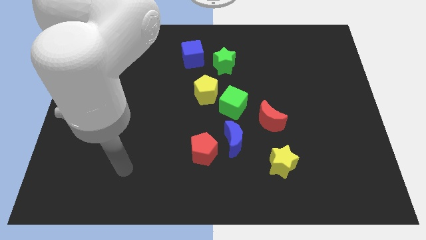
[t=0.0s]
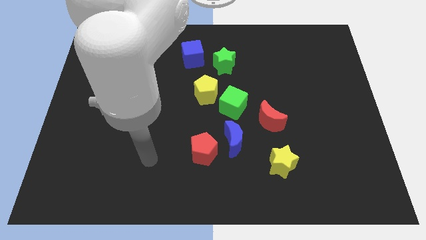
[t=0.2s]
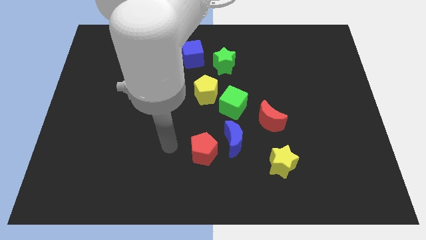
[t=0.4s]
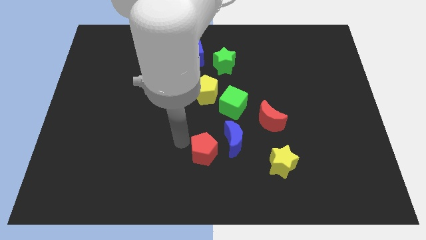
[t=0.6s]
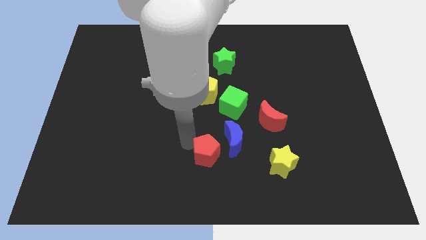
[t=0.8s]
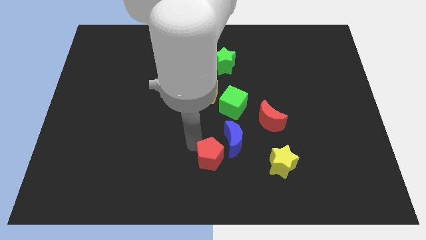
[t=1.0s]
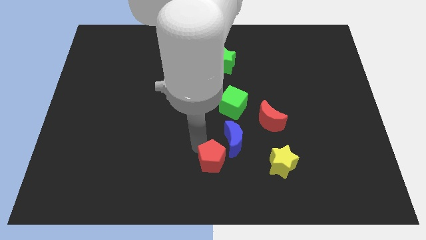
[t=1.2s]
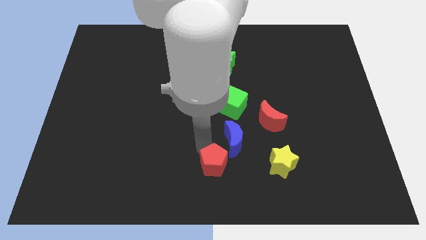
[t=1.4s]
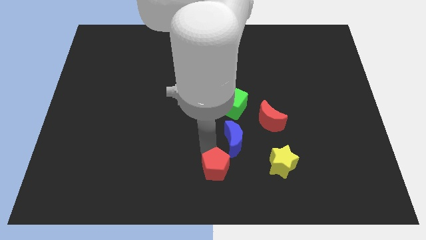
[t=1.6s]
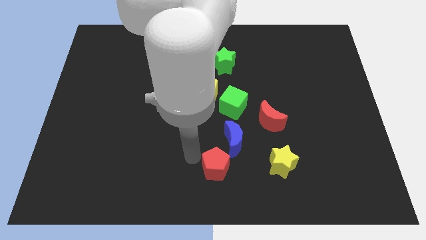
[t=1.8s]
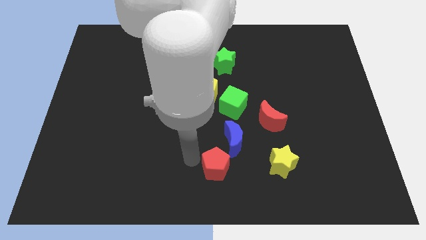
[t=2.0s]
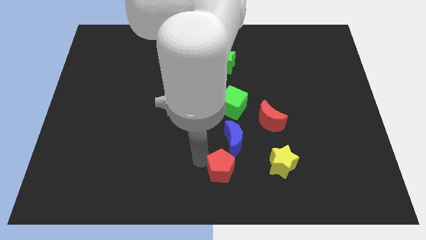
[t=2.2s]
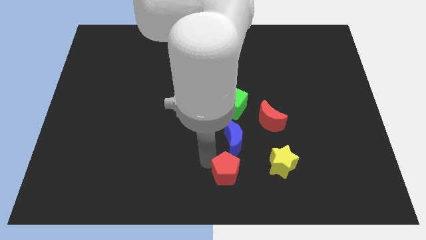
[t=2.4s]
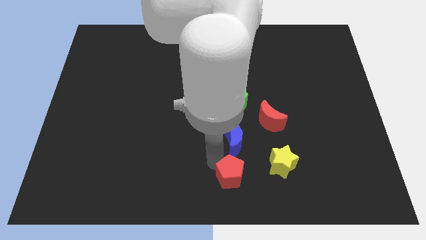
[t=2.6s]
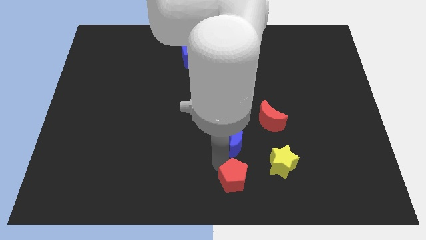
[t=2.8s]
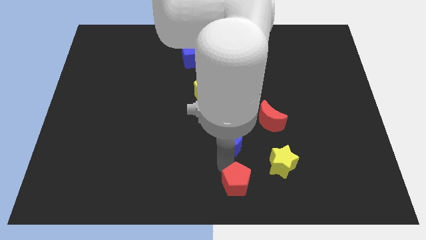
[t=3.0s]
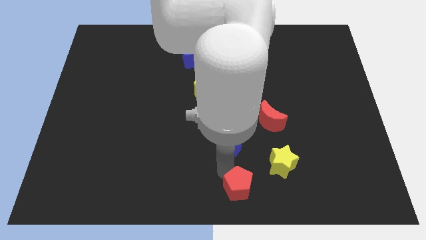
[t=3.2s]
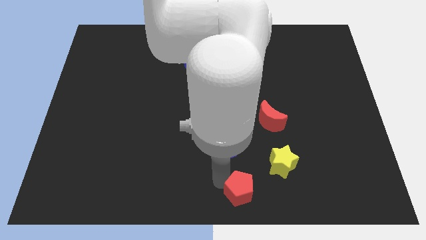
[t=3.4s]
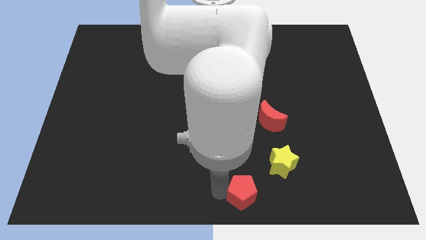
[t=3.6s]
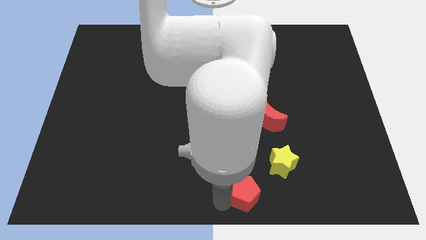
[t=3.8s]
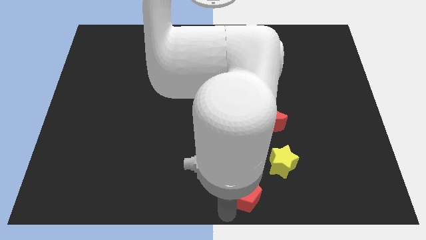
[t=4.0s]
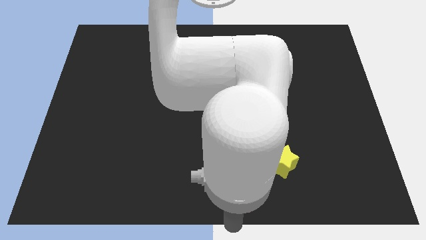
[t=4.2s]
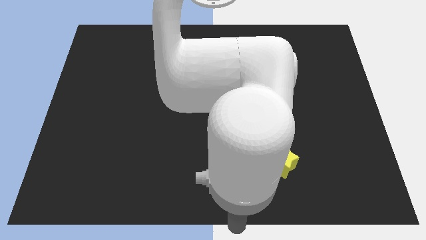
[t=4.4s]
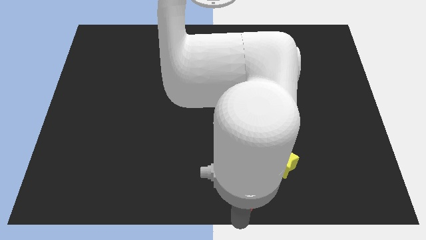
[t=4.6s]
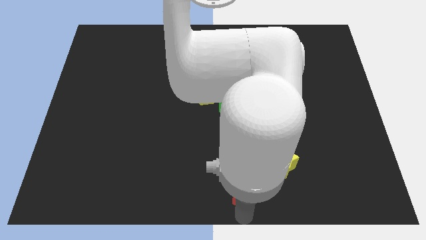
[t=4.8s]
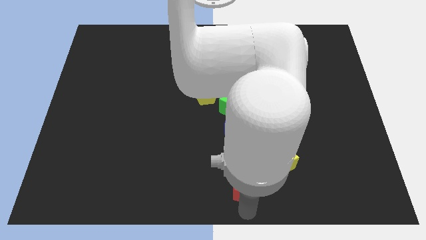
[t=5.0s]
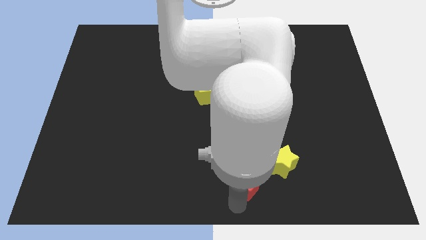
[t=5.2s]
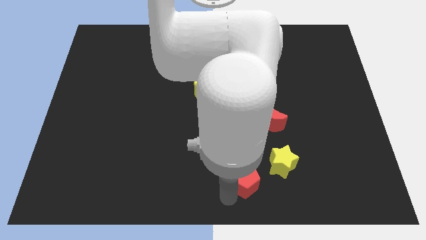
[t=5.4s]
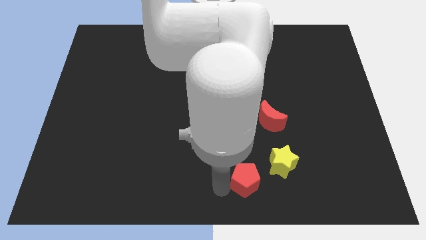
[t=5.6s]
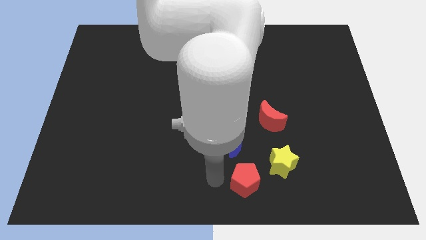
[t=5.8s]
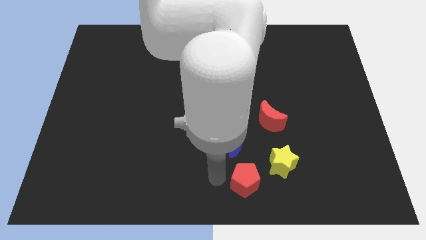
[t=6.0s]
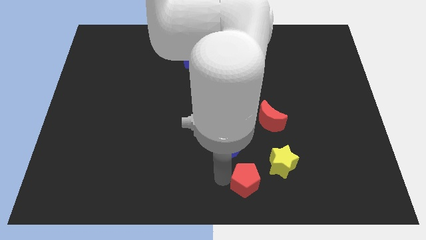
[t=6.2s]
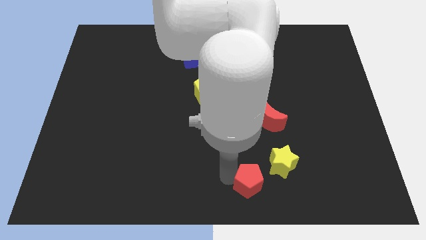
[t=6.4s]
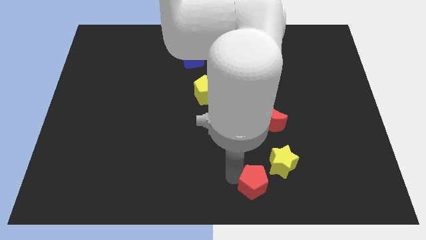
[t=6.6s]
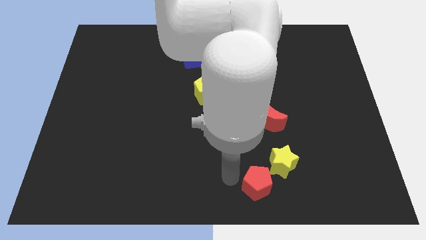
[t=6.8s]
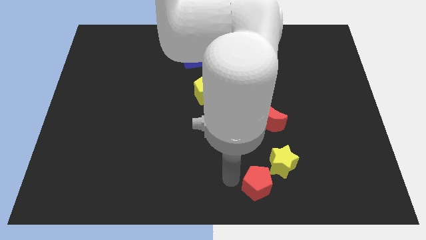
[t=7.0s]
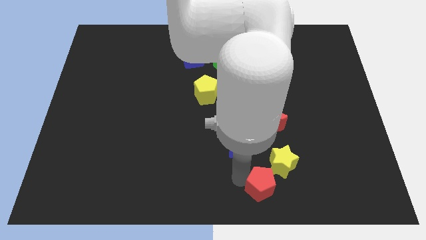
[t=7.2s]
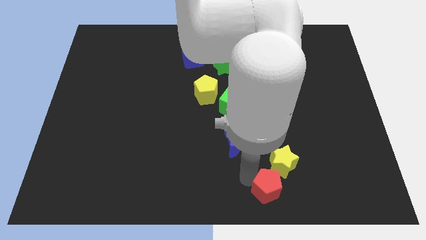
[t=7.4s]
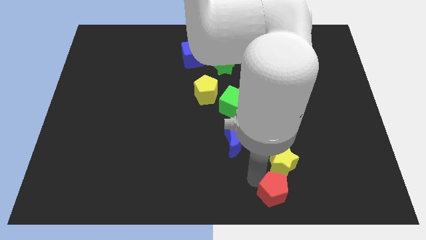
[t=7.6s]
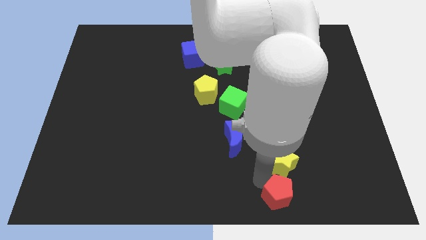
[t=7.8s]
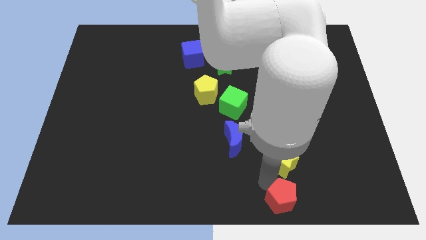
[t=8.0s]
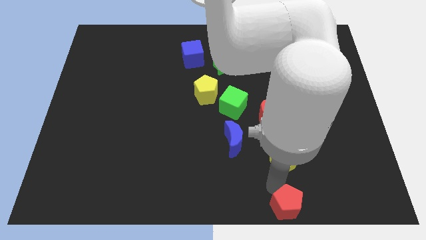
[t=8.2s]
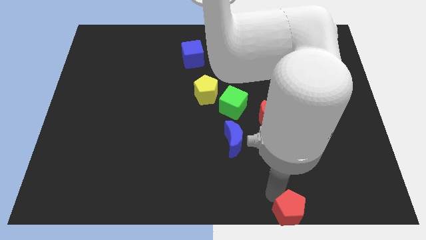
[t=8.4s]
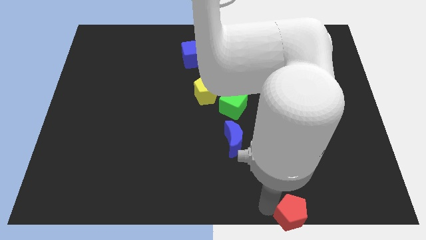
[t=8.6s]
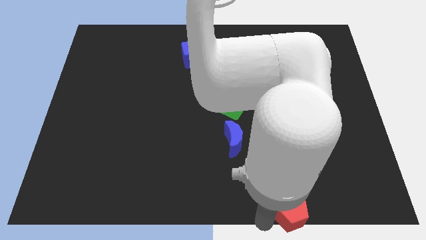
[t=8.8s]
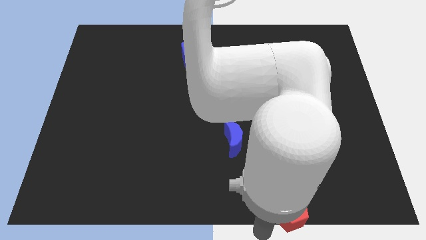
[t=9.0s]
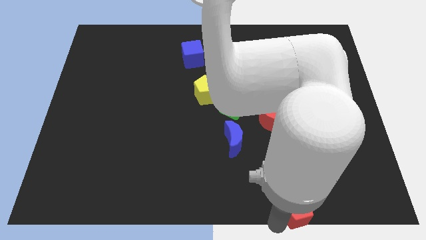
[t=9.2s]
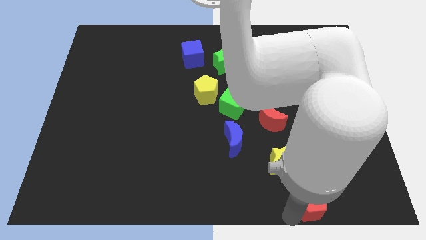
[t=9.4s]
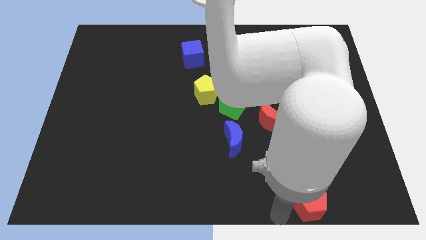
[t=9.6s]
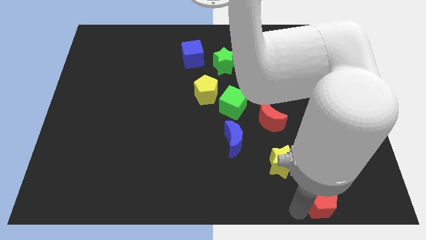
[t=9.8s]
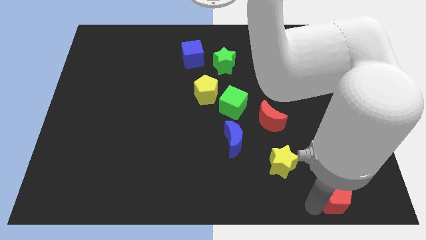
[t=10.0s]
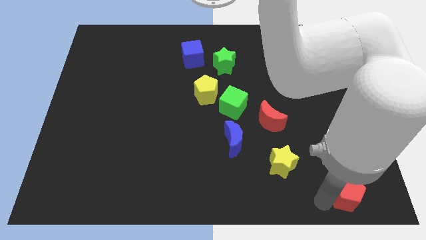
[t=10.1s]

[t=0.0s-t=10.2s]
put the red pentagon to the bottom right

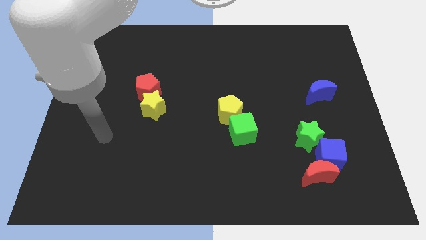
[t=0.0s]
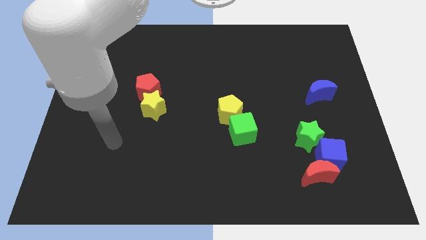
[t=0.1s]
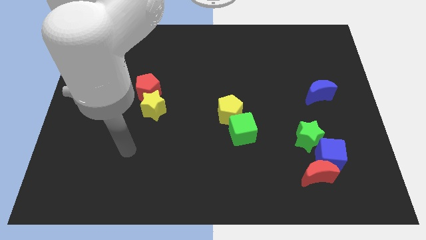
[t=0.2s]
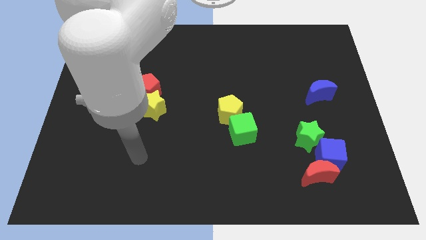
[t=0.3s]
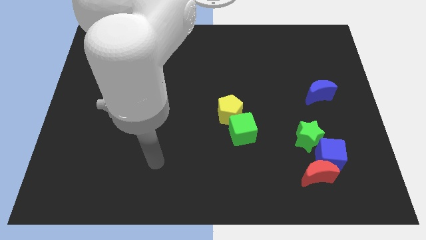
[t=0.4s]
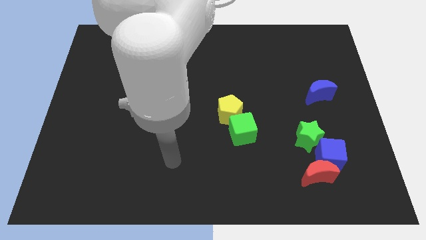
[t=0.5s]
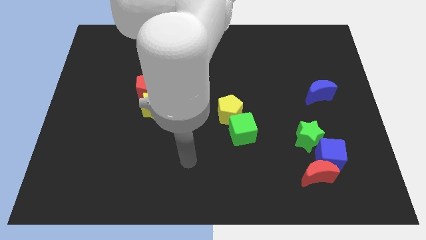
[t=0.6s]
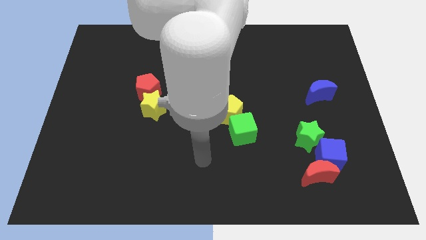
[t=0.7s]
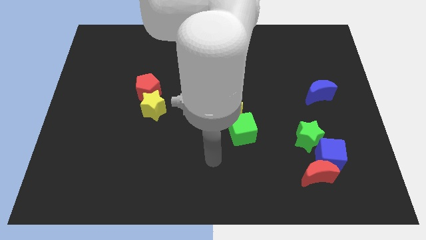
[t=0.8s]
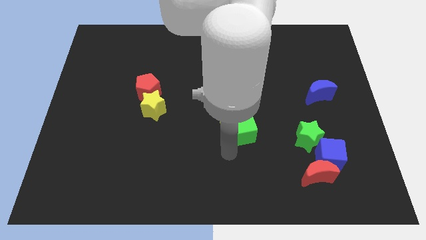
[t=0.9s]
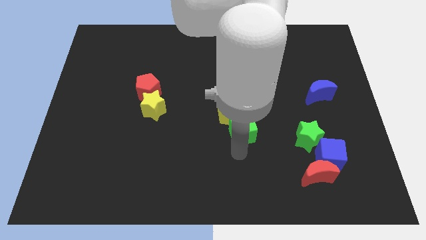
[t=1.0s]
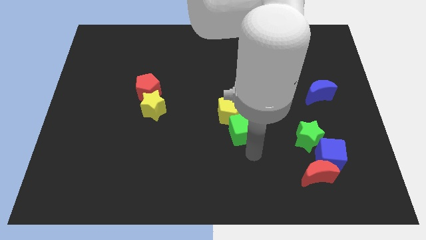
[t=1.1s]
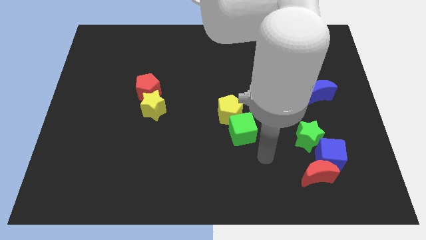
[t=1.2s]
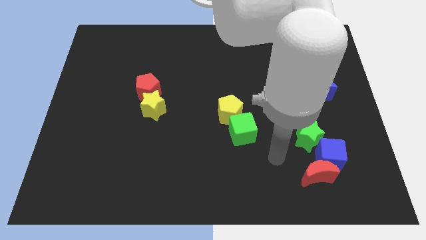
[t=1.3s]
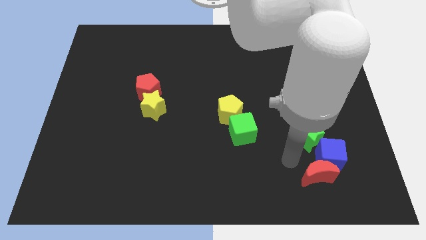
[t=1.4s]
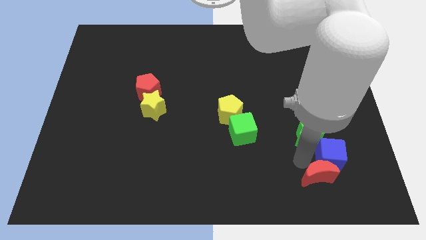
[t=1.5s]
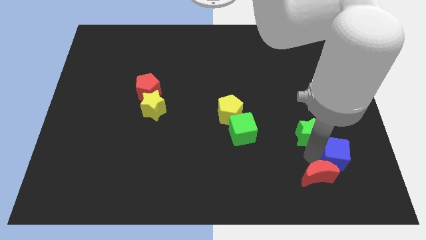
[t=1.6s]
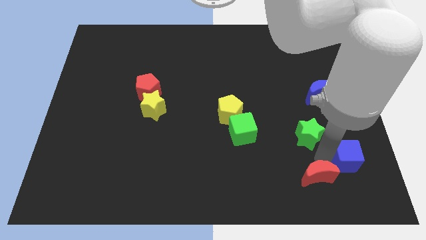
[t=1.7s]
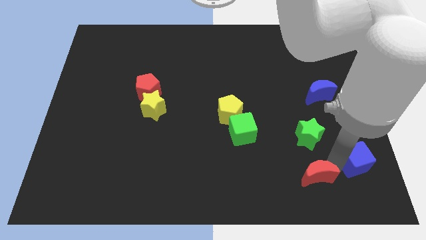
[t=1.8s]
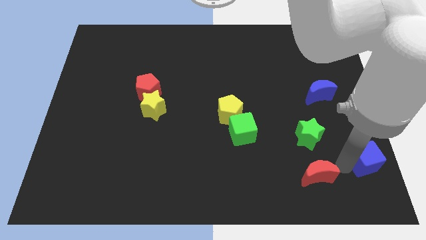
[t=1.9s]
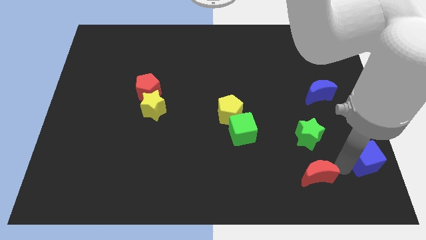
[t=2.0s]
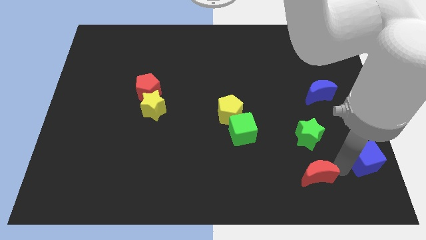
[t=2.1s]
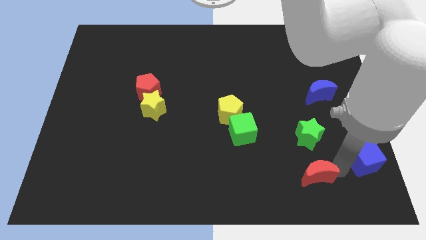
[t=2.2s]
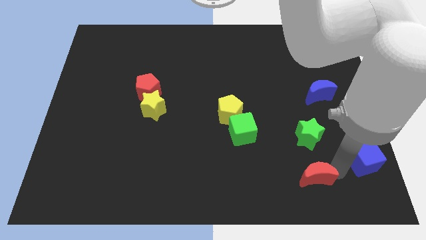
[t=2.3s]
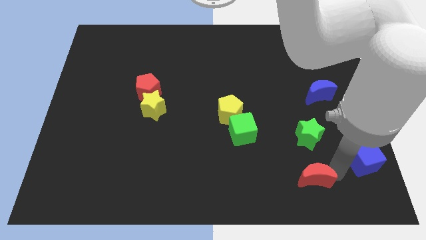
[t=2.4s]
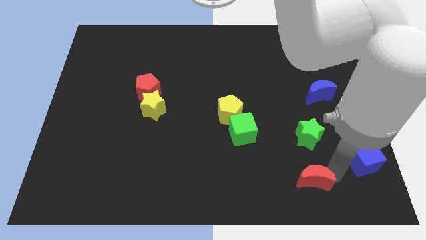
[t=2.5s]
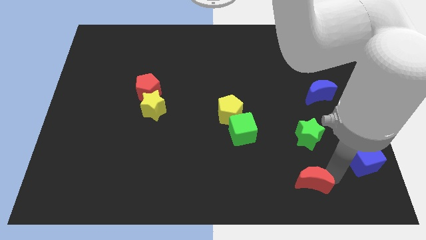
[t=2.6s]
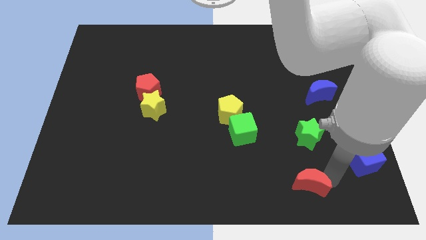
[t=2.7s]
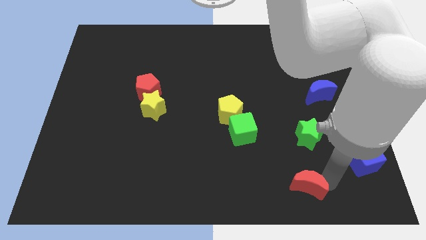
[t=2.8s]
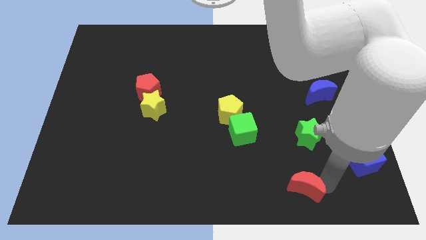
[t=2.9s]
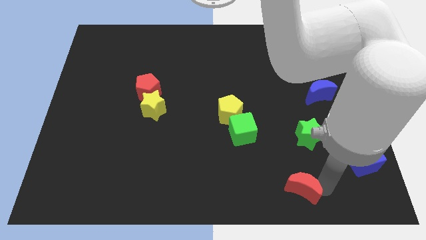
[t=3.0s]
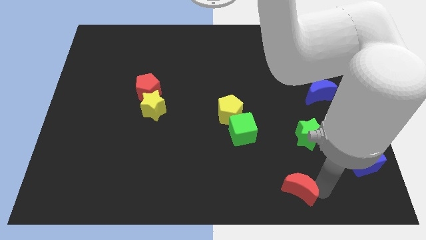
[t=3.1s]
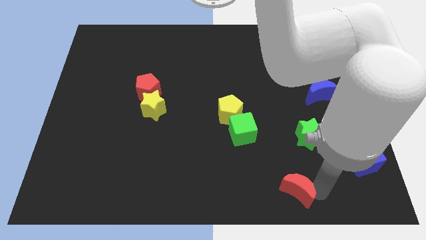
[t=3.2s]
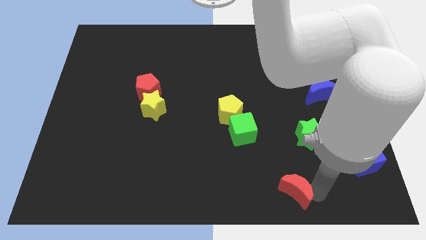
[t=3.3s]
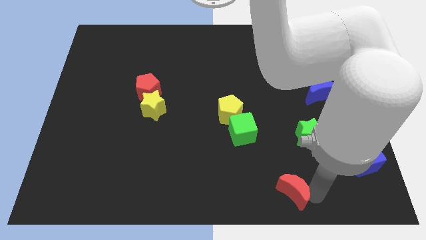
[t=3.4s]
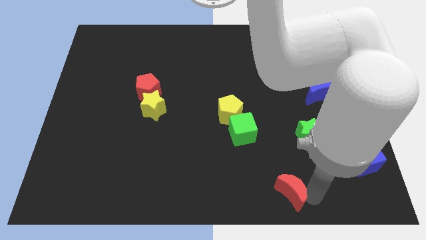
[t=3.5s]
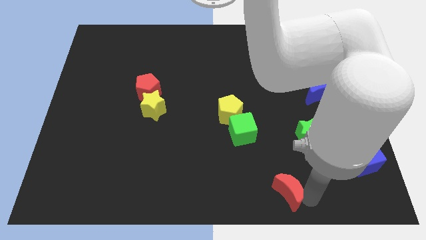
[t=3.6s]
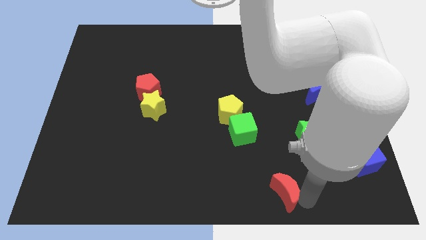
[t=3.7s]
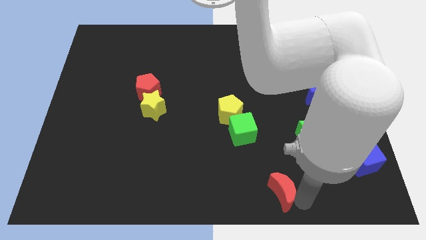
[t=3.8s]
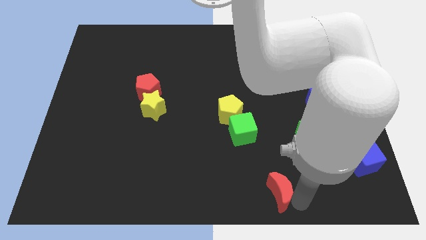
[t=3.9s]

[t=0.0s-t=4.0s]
put the red moon to the bottom
